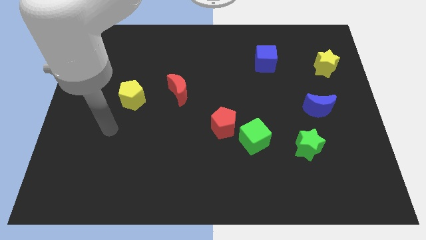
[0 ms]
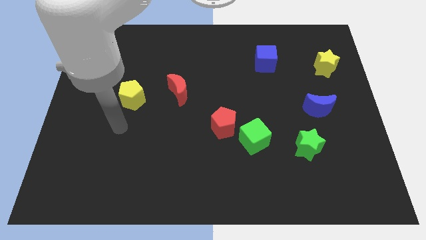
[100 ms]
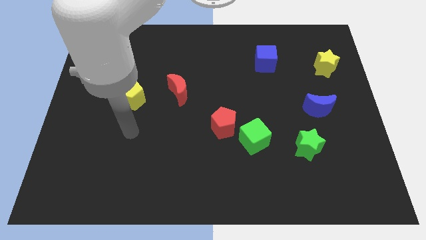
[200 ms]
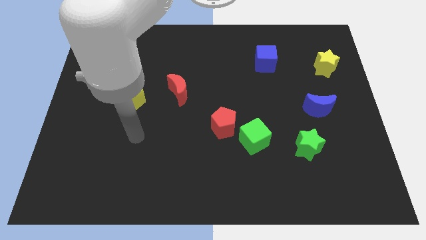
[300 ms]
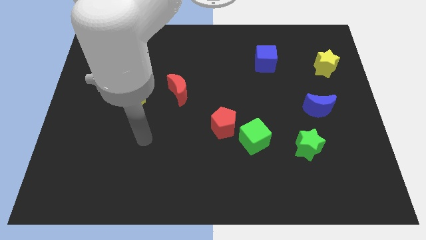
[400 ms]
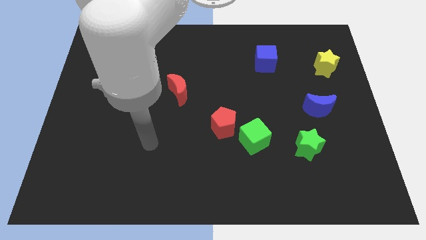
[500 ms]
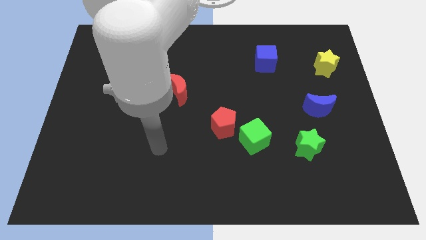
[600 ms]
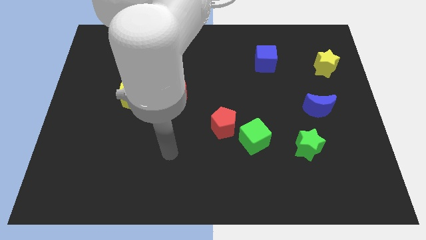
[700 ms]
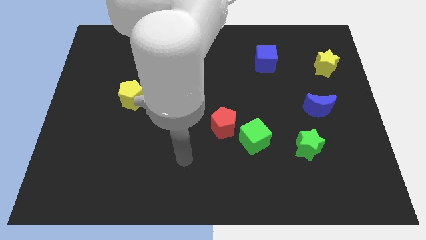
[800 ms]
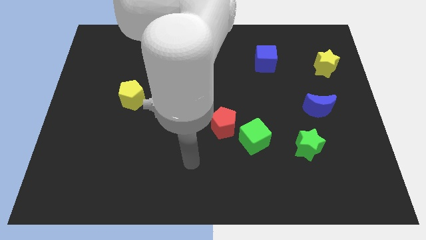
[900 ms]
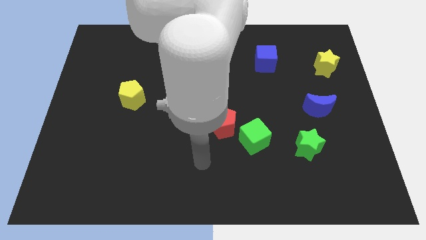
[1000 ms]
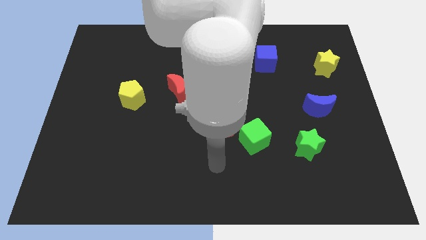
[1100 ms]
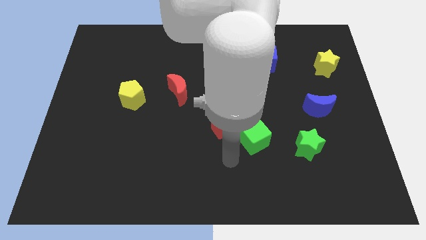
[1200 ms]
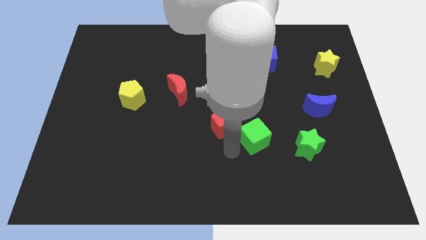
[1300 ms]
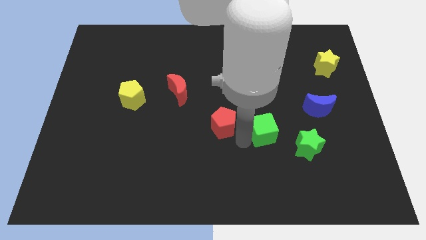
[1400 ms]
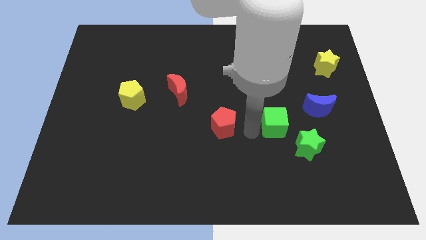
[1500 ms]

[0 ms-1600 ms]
pull the red pentagon apart from the green cube

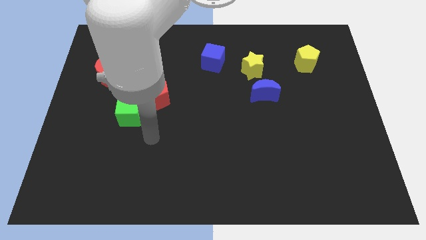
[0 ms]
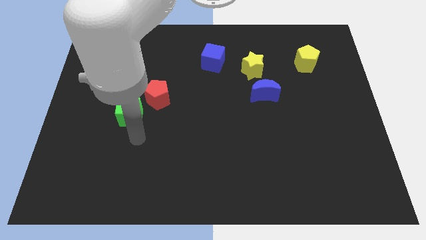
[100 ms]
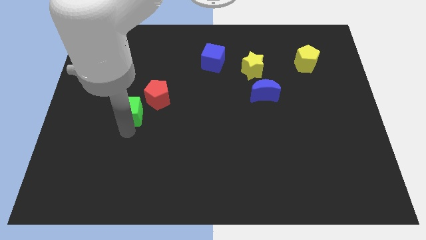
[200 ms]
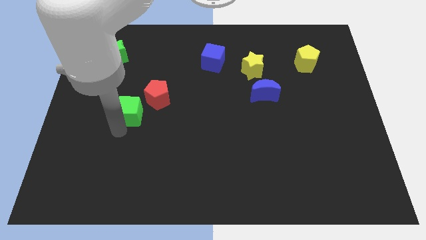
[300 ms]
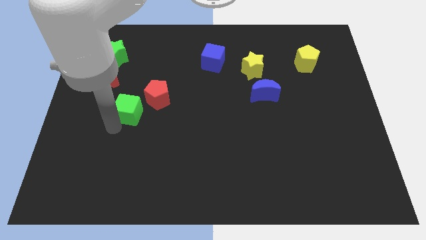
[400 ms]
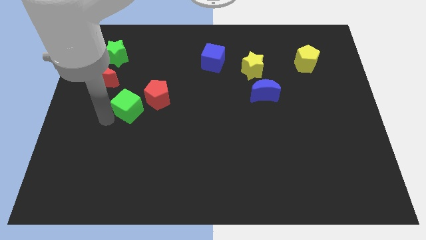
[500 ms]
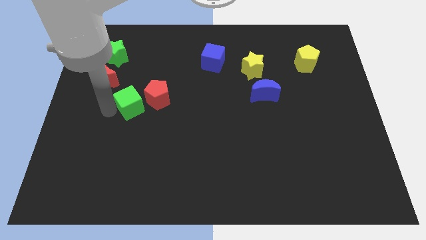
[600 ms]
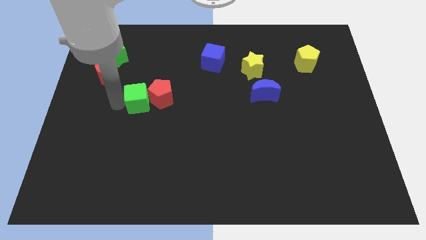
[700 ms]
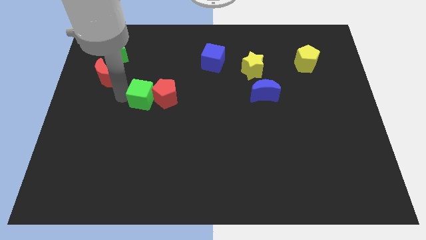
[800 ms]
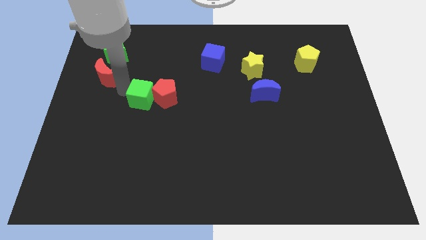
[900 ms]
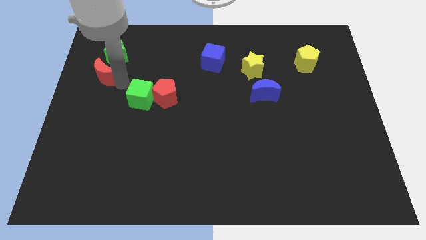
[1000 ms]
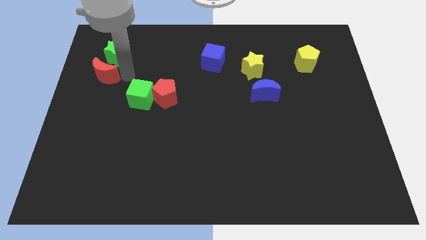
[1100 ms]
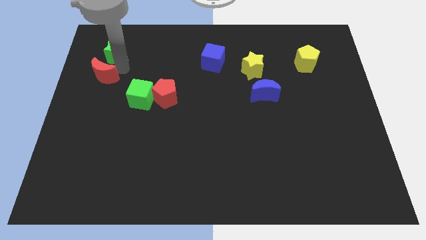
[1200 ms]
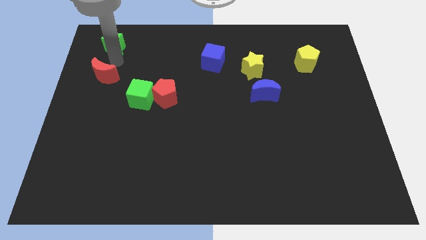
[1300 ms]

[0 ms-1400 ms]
pull the red moon apart from the green star

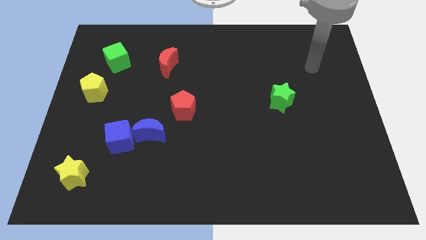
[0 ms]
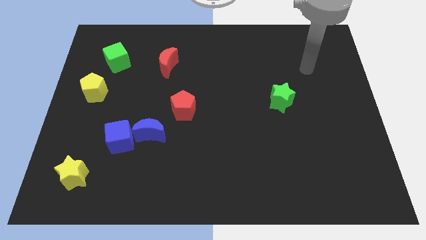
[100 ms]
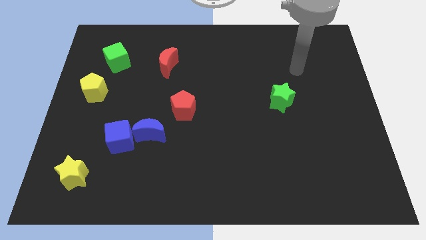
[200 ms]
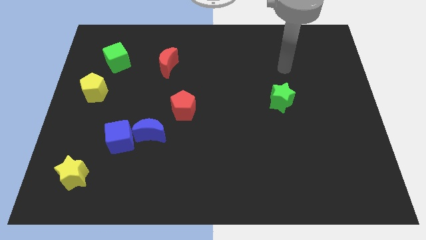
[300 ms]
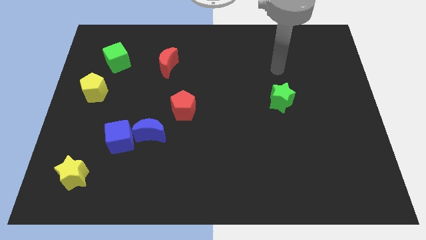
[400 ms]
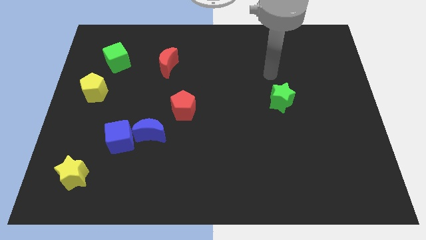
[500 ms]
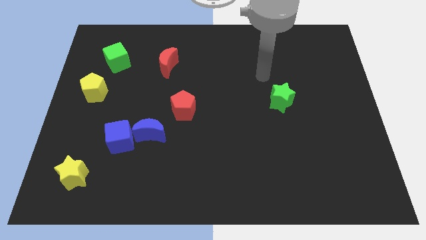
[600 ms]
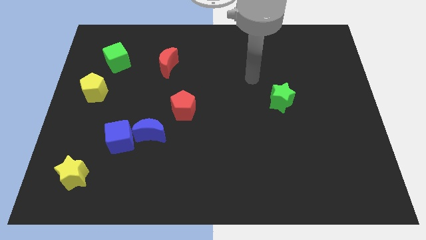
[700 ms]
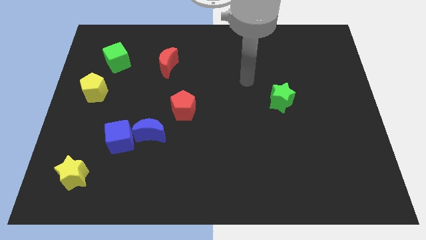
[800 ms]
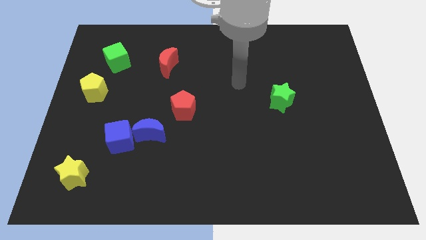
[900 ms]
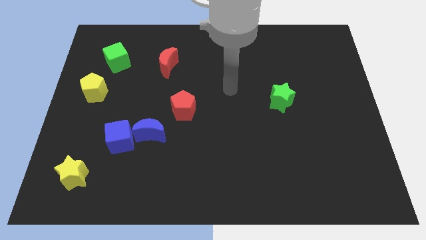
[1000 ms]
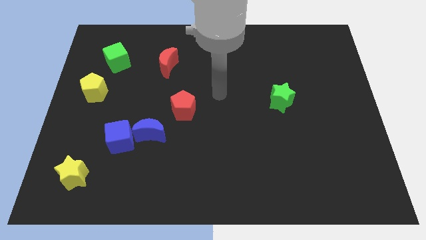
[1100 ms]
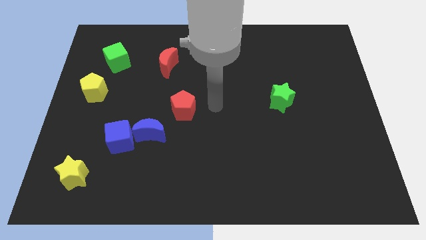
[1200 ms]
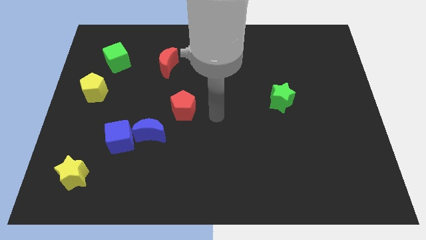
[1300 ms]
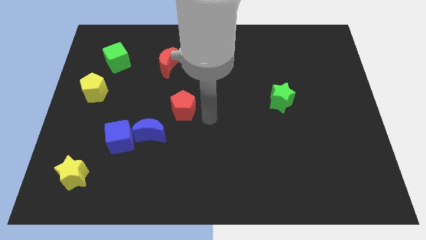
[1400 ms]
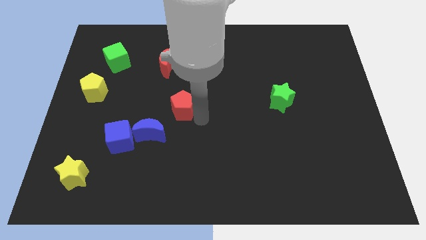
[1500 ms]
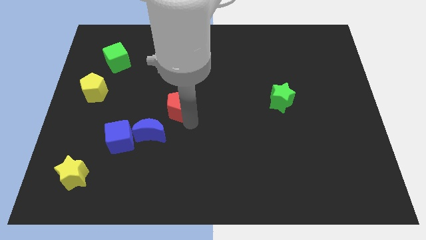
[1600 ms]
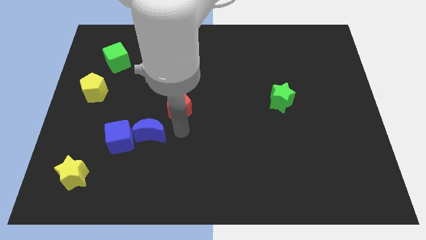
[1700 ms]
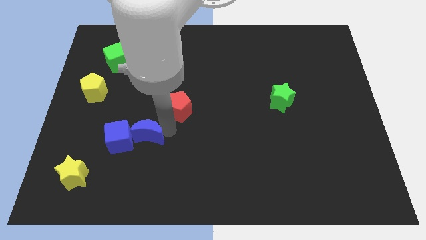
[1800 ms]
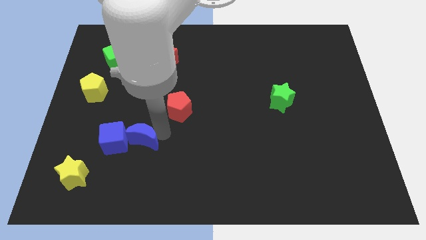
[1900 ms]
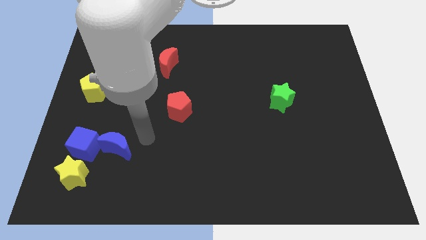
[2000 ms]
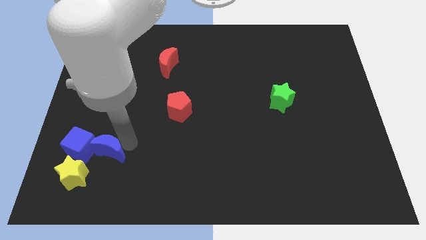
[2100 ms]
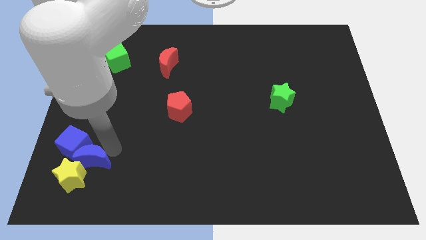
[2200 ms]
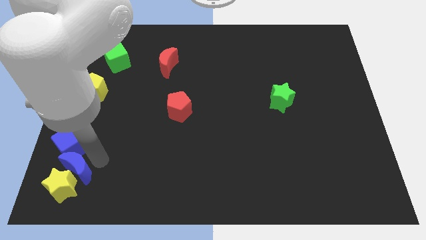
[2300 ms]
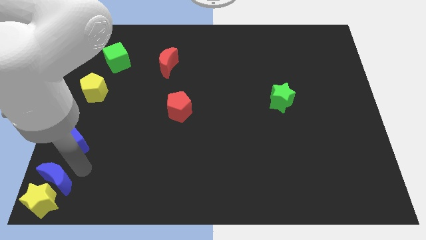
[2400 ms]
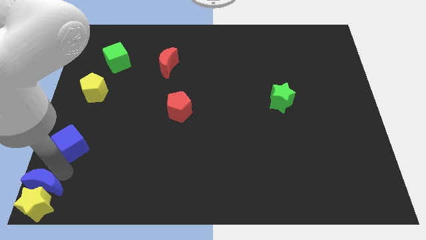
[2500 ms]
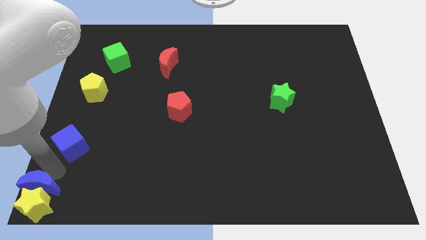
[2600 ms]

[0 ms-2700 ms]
pull the blue cube apart from the blue moon

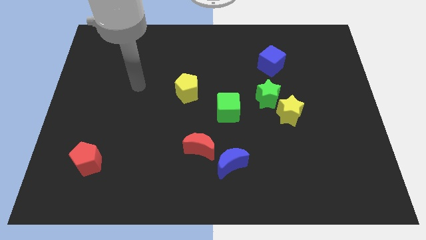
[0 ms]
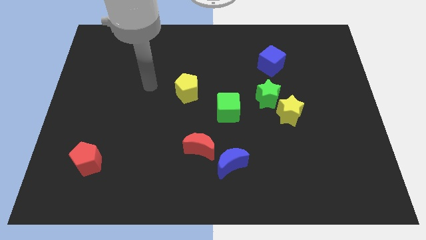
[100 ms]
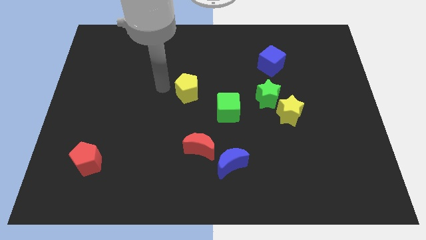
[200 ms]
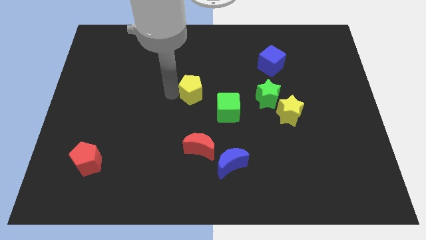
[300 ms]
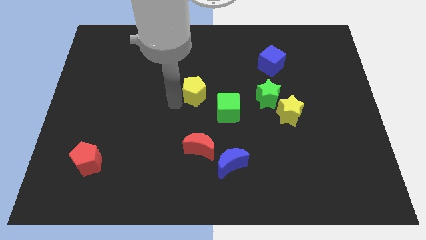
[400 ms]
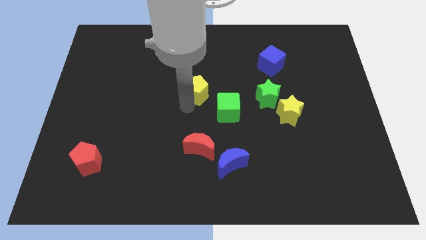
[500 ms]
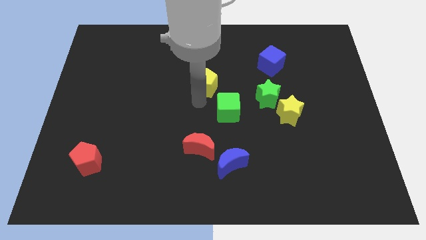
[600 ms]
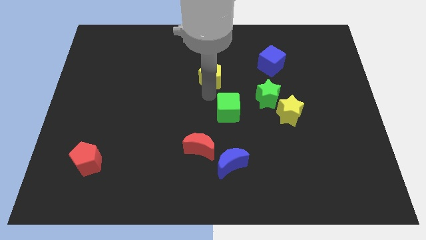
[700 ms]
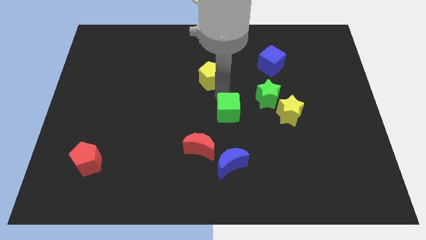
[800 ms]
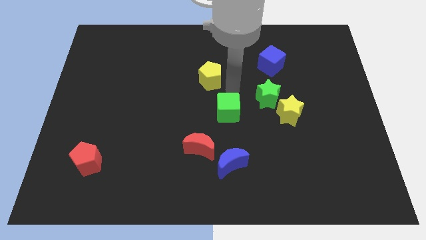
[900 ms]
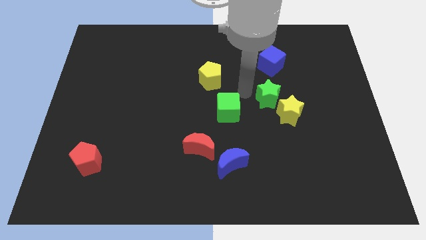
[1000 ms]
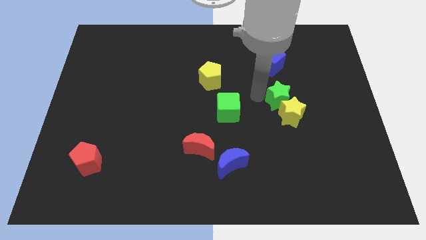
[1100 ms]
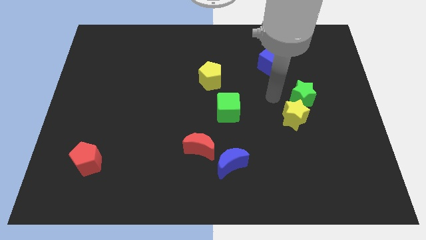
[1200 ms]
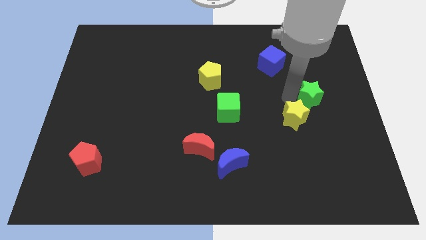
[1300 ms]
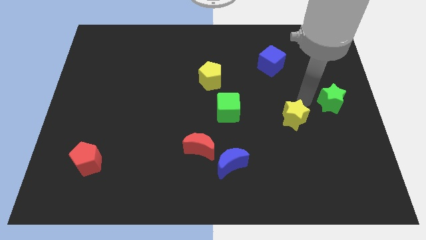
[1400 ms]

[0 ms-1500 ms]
pull the yellow star apart from the green star

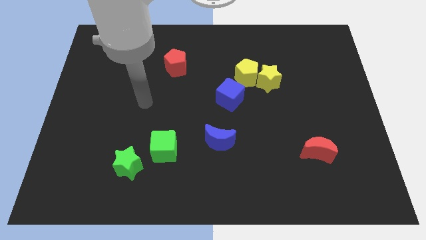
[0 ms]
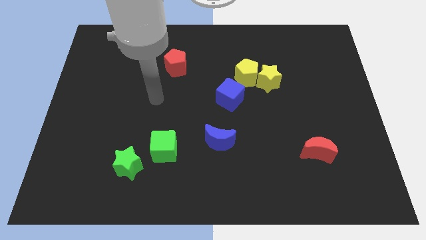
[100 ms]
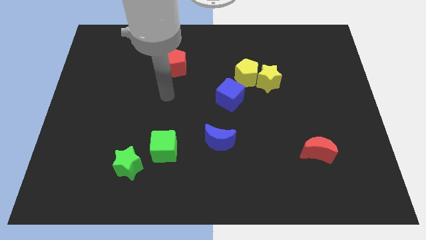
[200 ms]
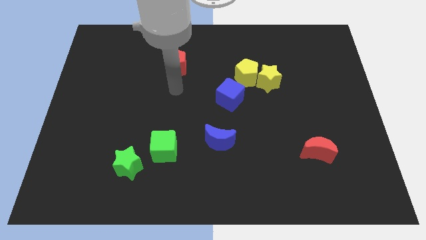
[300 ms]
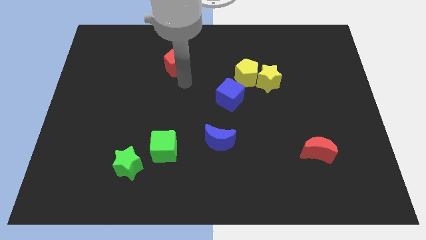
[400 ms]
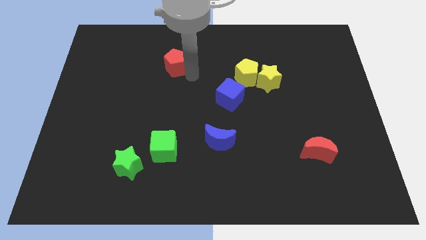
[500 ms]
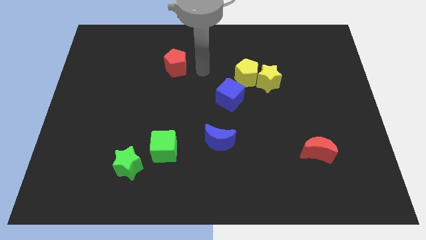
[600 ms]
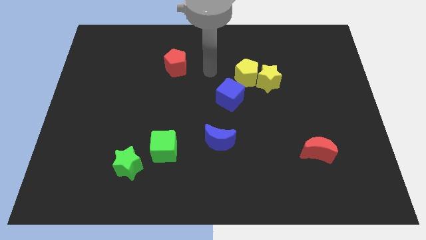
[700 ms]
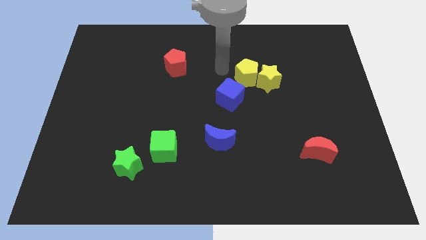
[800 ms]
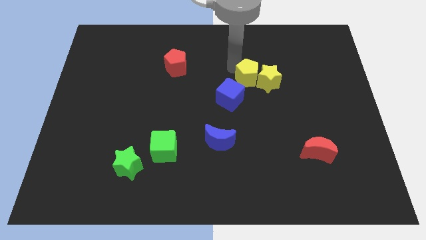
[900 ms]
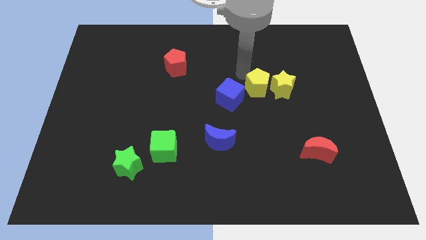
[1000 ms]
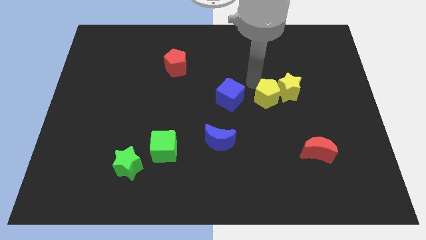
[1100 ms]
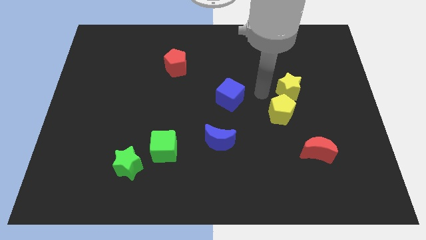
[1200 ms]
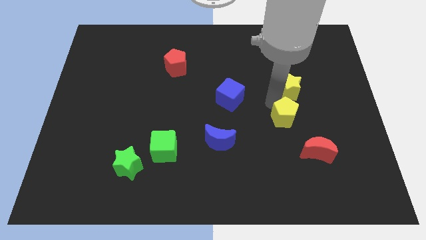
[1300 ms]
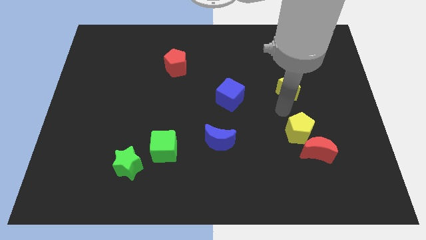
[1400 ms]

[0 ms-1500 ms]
pull the yellow star apart from the yellow pentagon

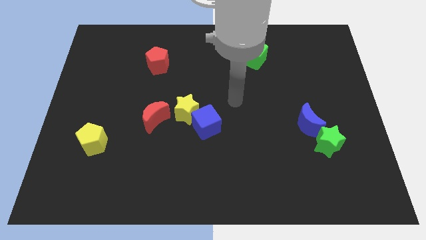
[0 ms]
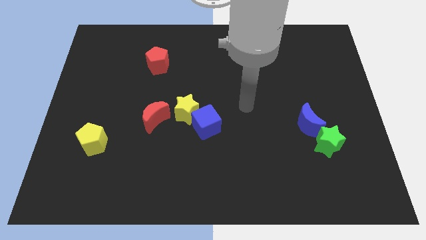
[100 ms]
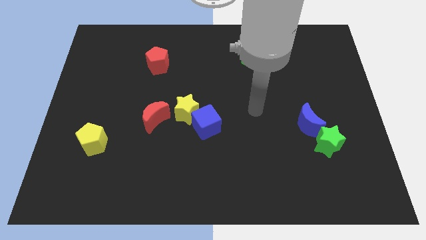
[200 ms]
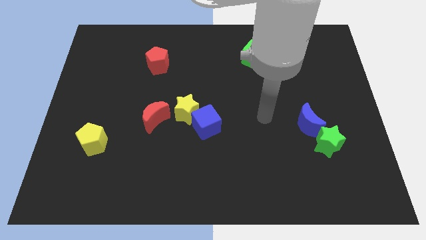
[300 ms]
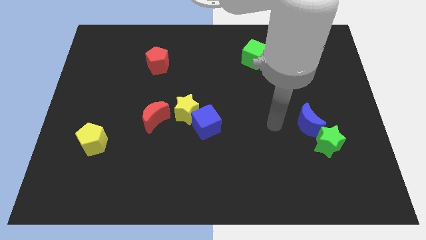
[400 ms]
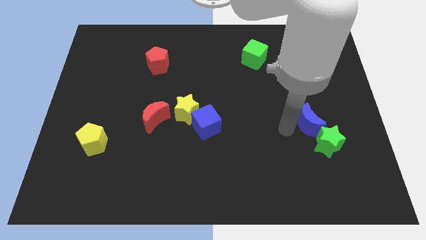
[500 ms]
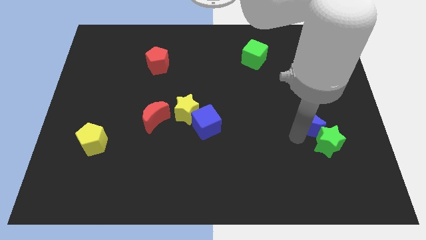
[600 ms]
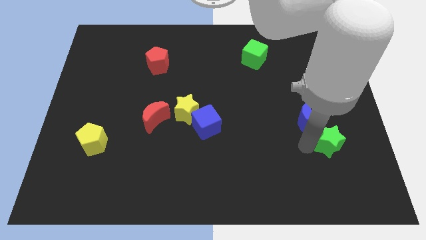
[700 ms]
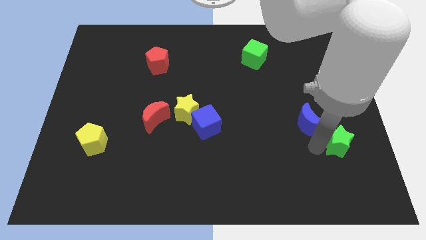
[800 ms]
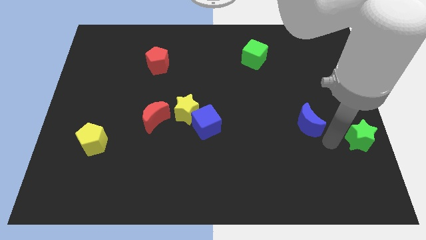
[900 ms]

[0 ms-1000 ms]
separate the blue moon from the green star
